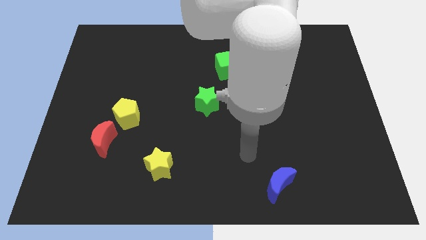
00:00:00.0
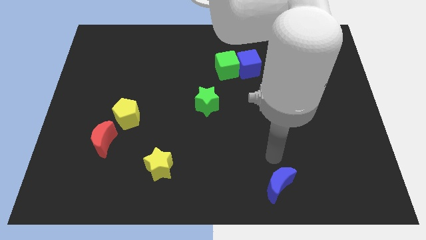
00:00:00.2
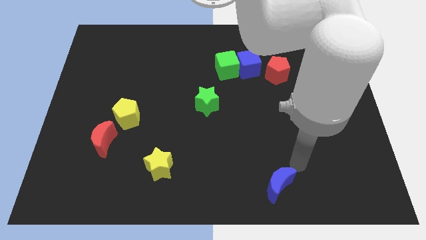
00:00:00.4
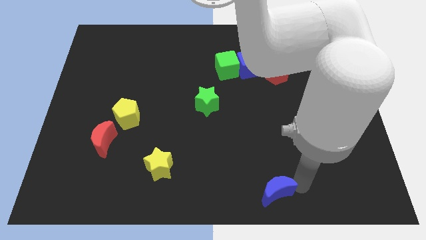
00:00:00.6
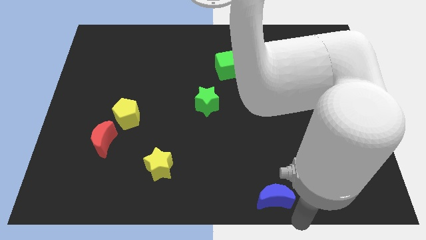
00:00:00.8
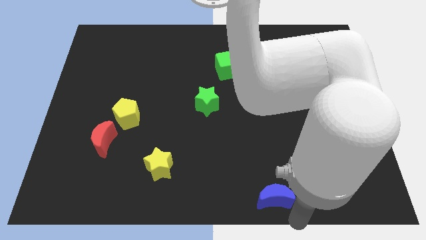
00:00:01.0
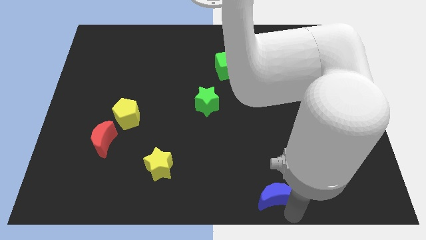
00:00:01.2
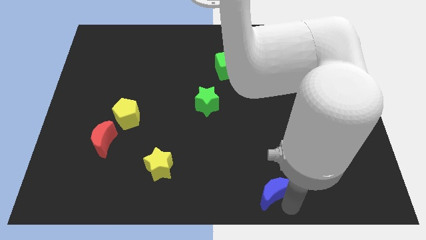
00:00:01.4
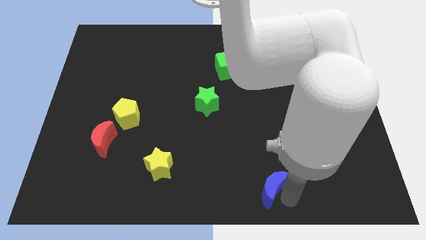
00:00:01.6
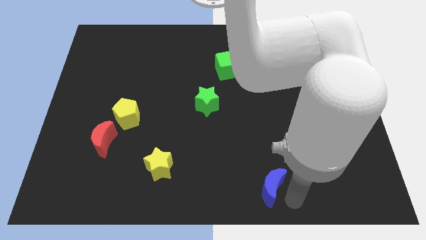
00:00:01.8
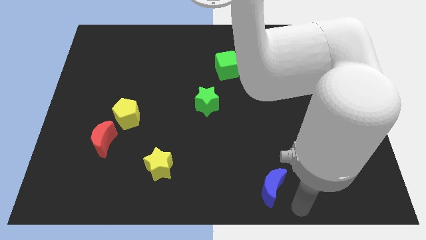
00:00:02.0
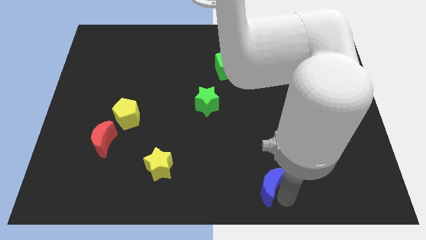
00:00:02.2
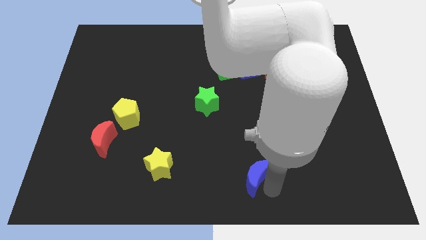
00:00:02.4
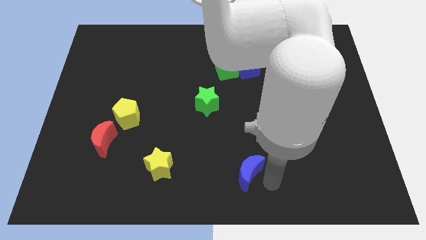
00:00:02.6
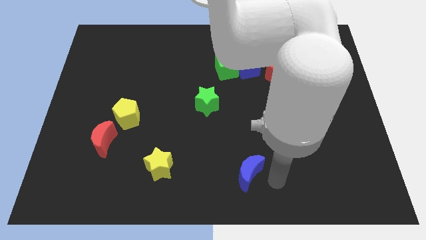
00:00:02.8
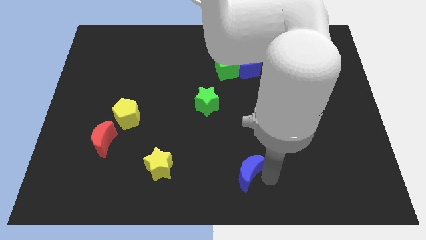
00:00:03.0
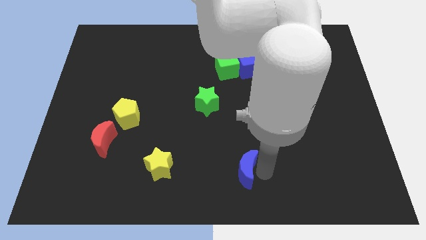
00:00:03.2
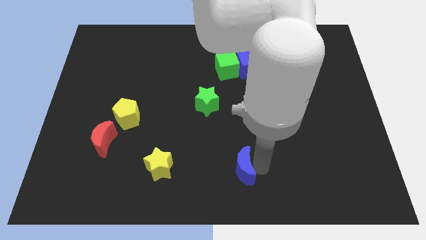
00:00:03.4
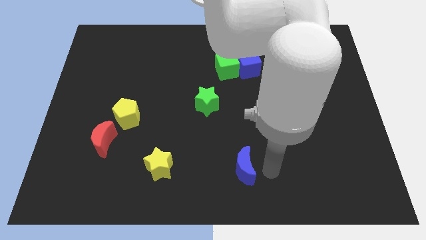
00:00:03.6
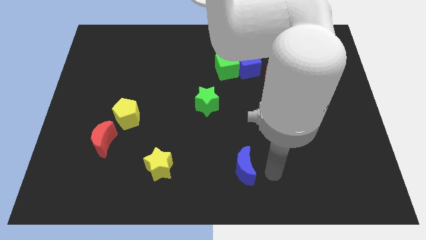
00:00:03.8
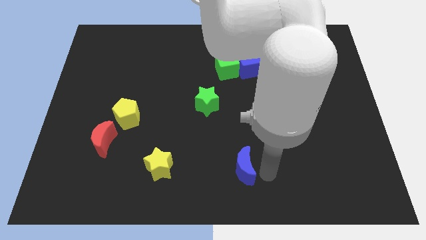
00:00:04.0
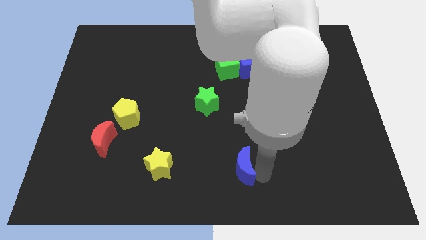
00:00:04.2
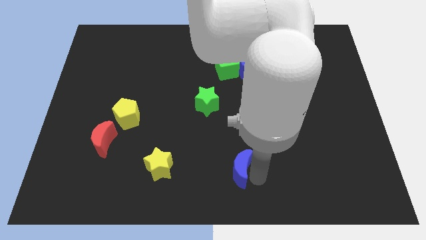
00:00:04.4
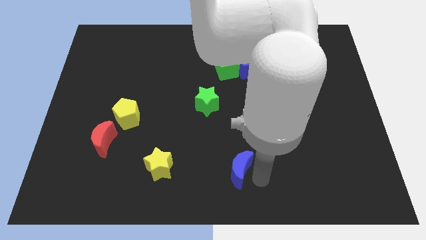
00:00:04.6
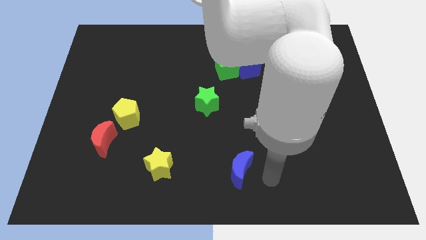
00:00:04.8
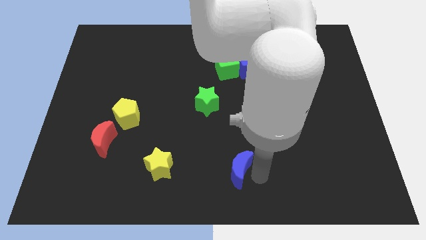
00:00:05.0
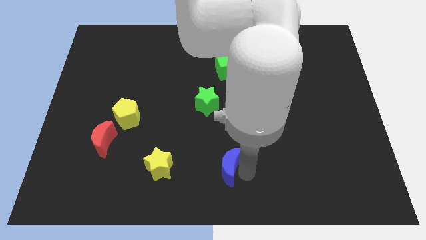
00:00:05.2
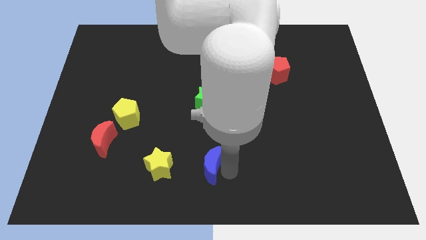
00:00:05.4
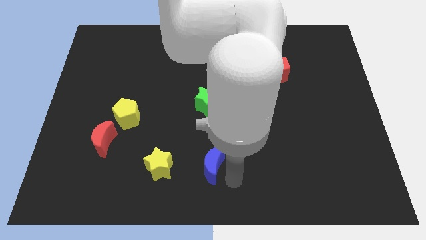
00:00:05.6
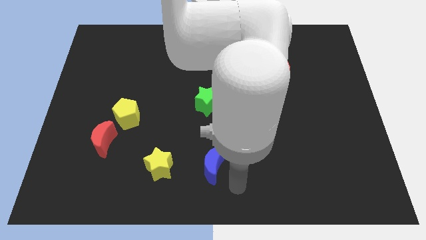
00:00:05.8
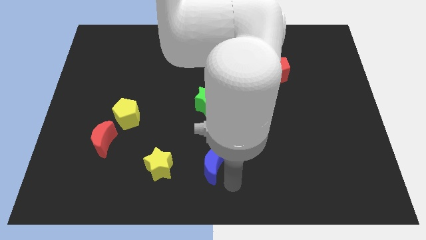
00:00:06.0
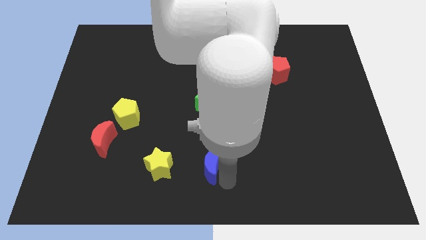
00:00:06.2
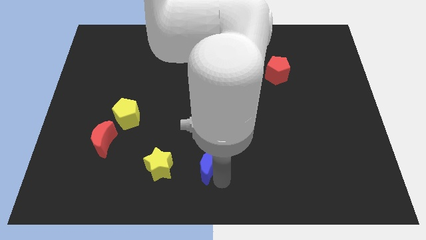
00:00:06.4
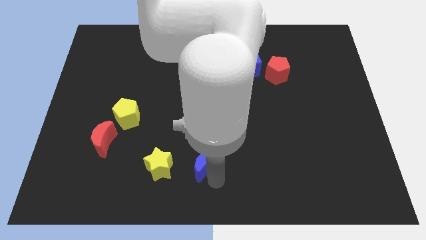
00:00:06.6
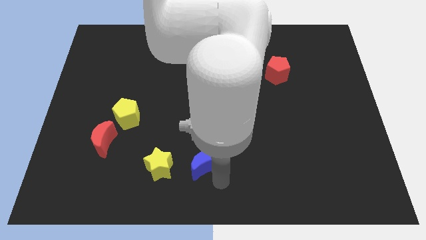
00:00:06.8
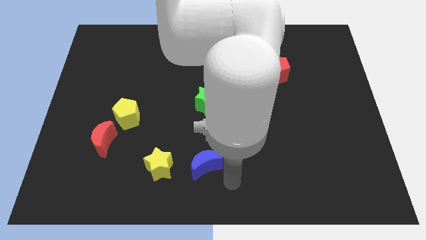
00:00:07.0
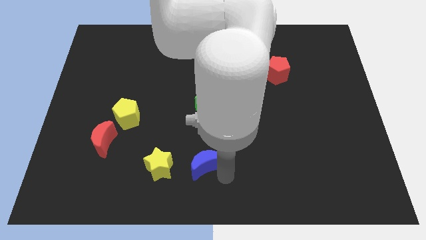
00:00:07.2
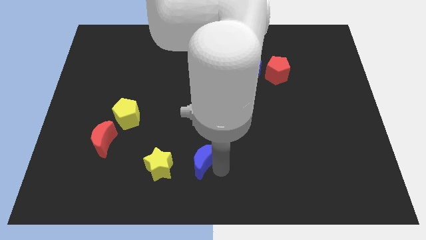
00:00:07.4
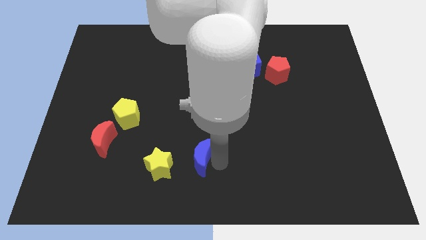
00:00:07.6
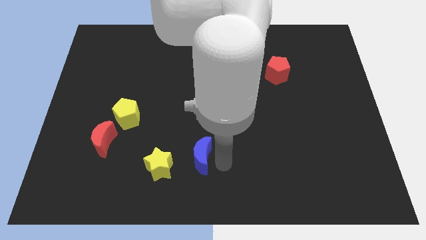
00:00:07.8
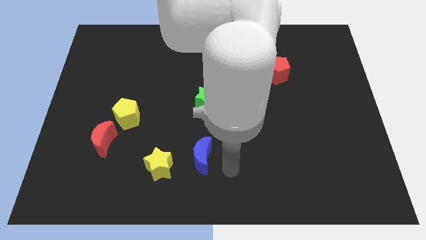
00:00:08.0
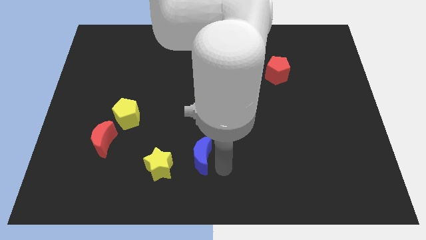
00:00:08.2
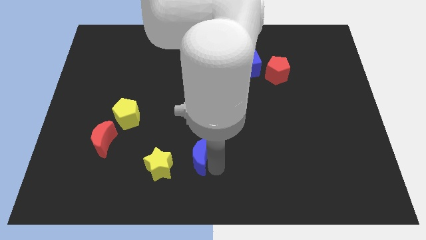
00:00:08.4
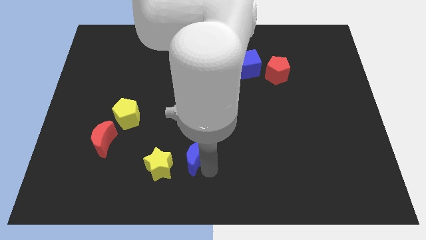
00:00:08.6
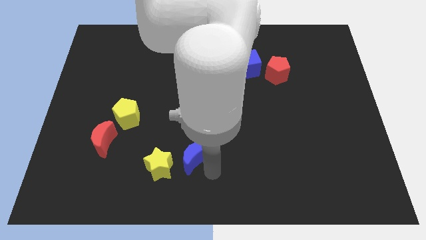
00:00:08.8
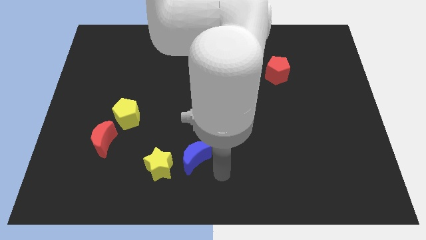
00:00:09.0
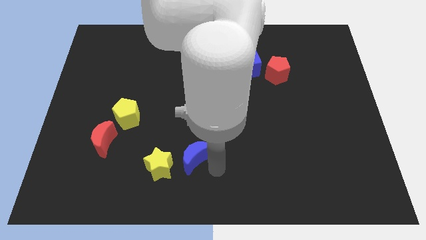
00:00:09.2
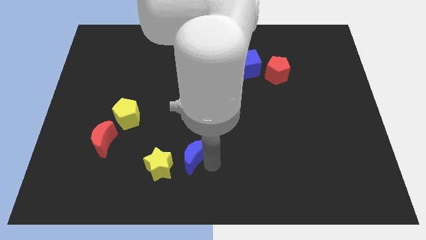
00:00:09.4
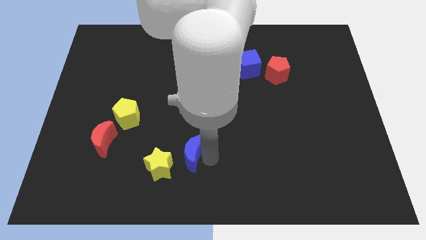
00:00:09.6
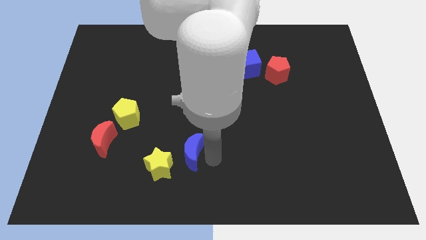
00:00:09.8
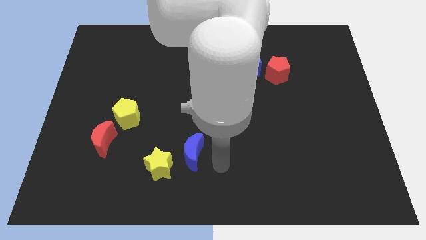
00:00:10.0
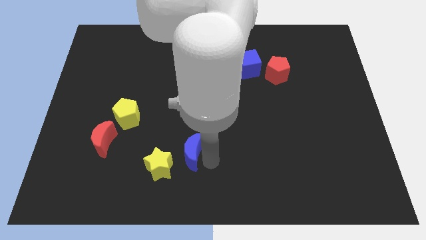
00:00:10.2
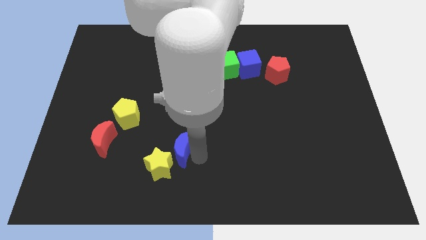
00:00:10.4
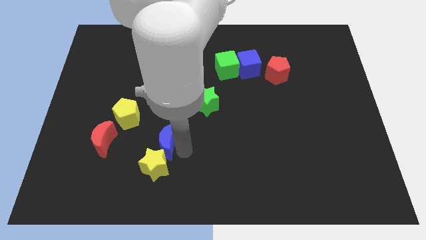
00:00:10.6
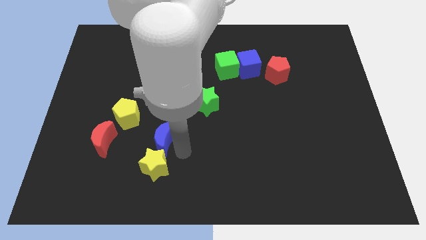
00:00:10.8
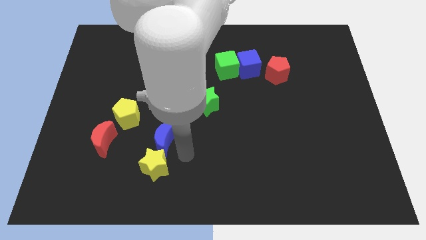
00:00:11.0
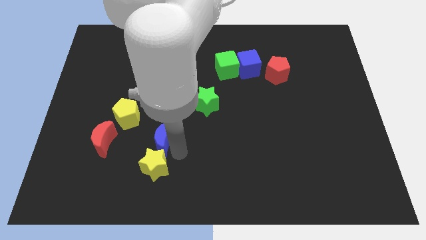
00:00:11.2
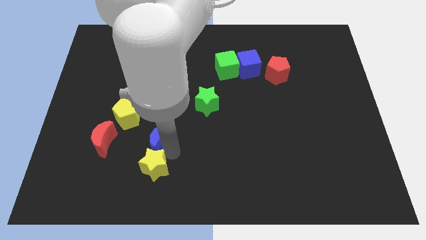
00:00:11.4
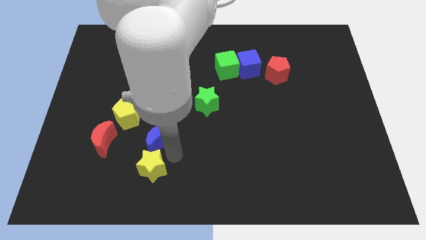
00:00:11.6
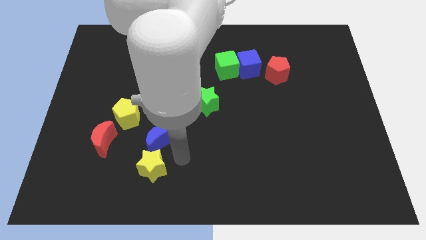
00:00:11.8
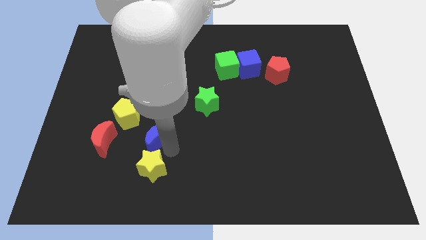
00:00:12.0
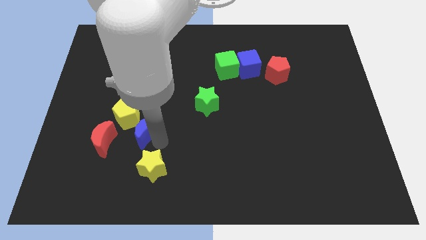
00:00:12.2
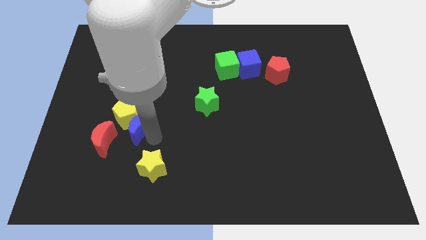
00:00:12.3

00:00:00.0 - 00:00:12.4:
put the blue moon towards the yellow pentagon

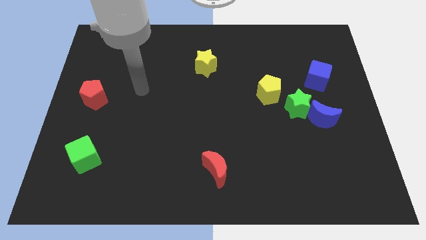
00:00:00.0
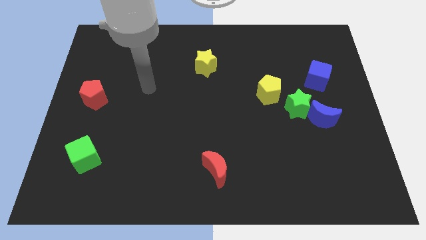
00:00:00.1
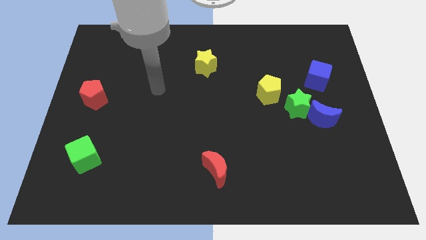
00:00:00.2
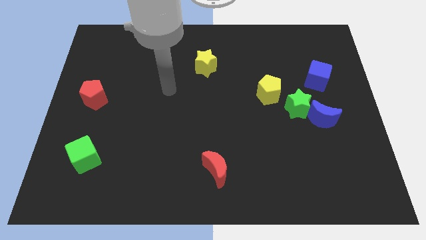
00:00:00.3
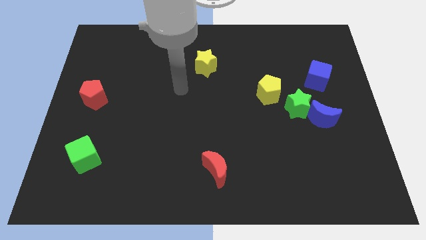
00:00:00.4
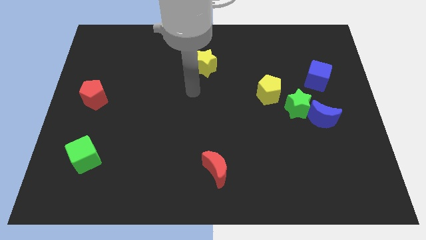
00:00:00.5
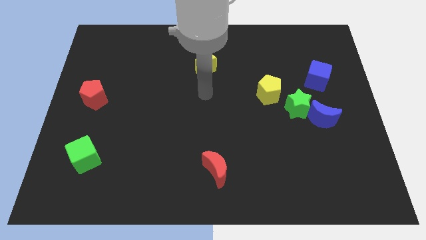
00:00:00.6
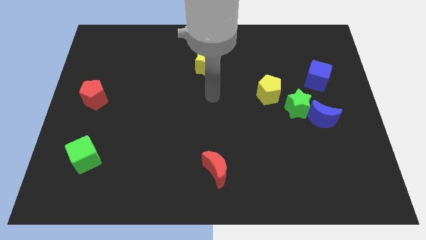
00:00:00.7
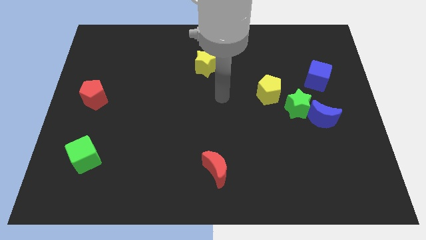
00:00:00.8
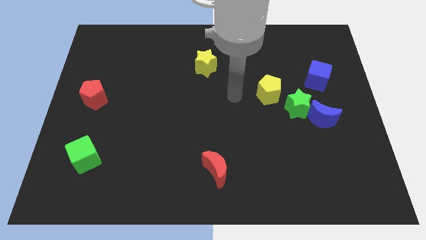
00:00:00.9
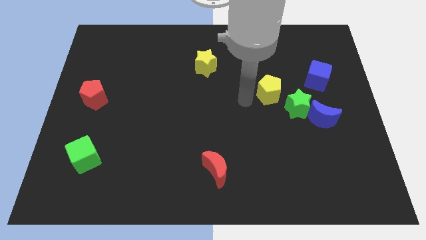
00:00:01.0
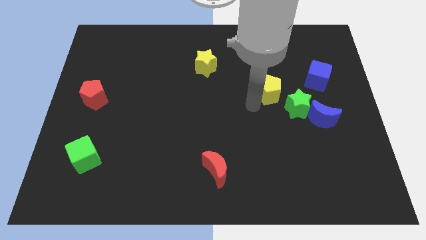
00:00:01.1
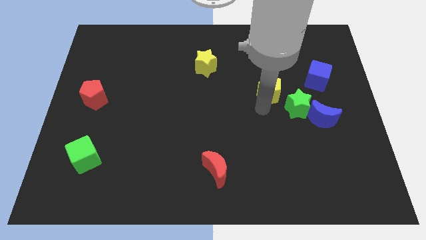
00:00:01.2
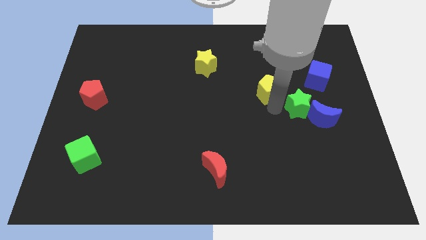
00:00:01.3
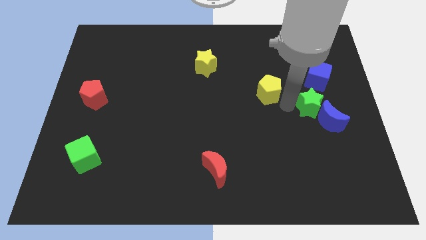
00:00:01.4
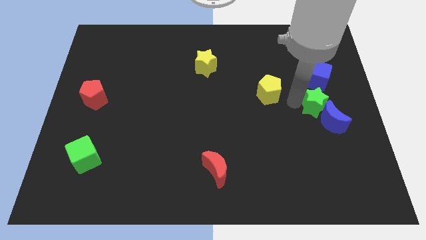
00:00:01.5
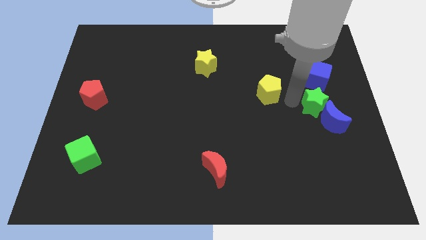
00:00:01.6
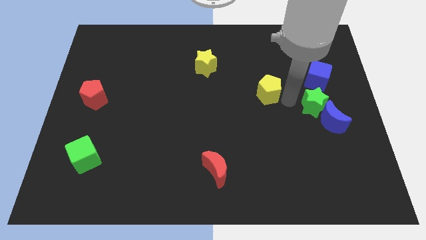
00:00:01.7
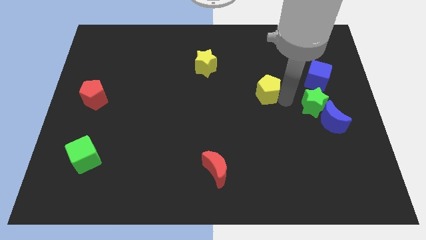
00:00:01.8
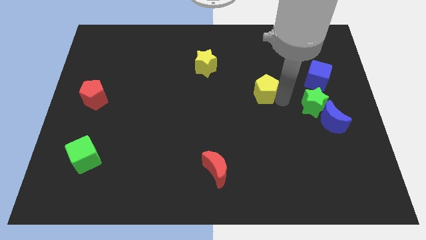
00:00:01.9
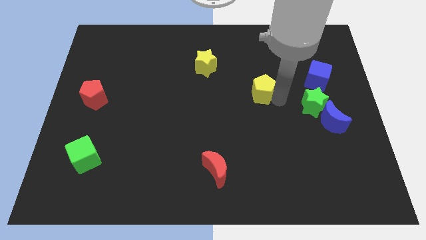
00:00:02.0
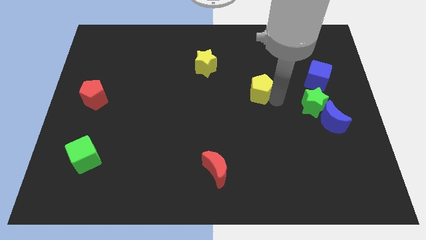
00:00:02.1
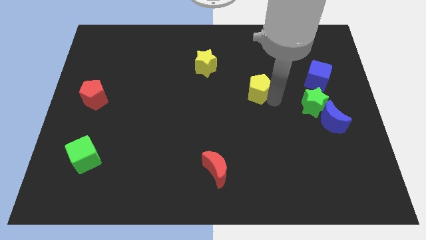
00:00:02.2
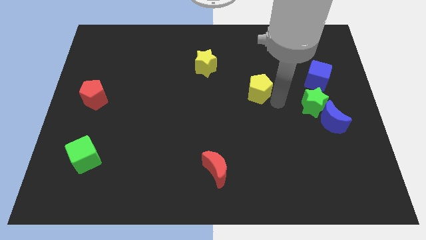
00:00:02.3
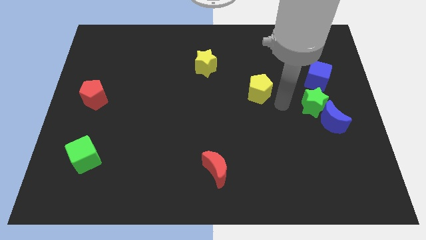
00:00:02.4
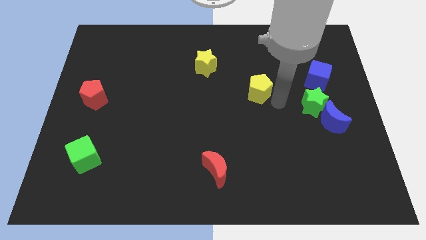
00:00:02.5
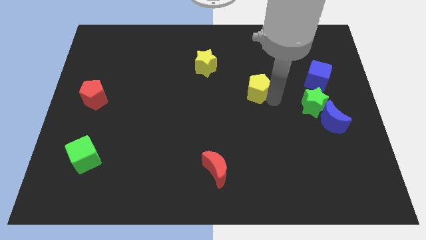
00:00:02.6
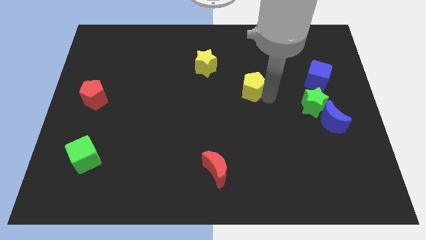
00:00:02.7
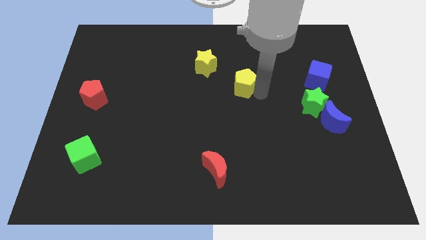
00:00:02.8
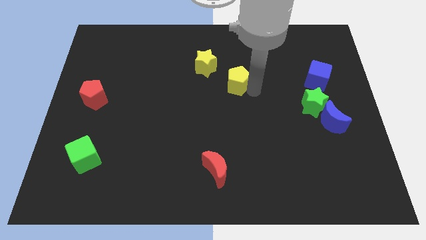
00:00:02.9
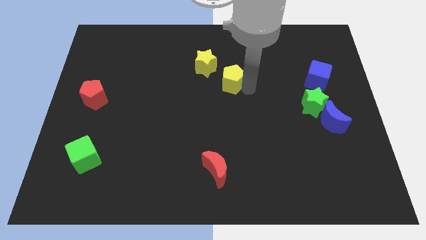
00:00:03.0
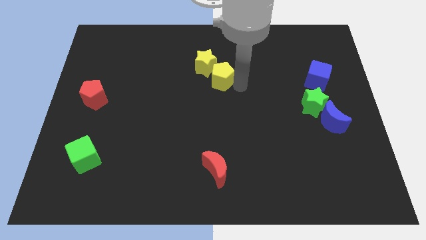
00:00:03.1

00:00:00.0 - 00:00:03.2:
slide the yellow pentagon towards the yellow star
